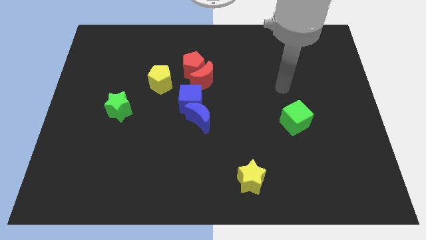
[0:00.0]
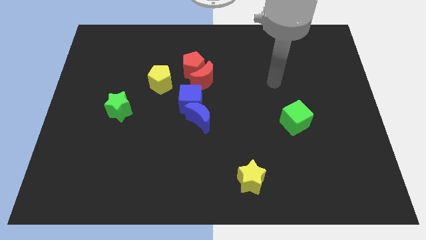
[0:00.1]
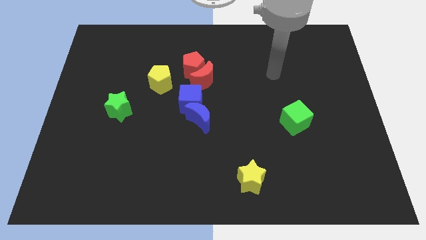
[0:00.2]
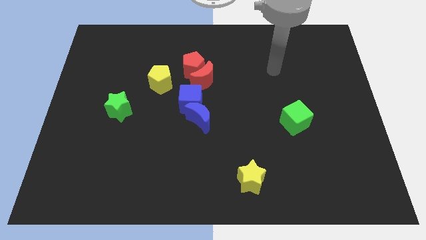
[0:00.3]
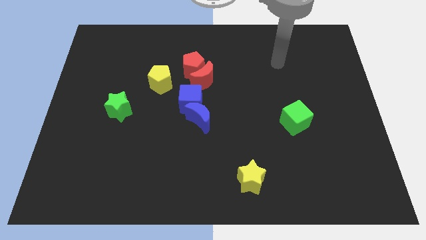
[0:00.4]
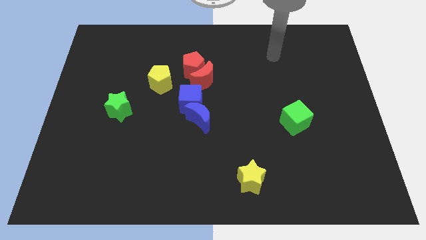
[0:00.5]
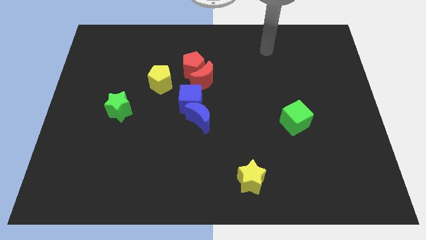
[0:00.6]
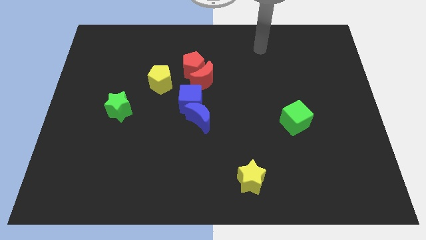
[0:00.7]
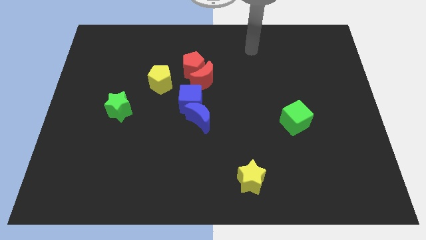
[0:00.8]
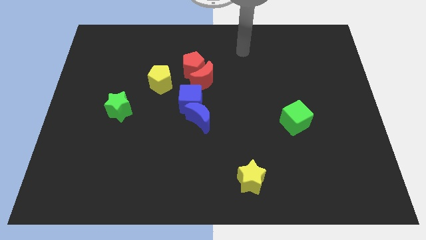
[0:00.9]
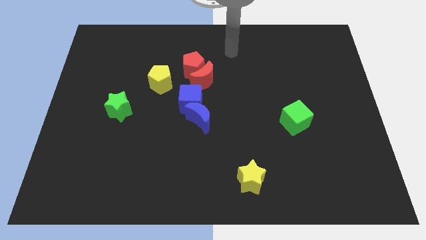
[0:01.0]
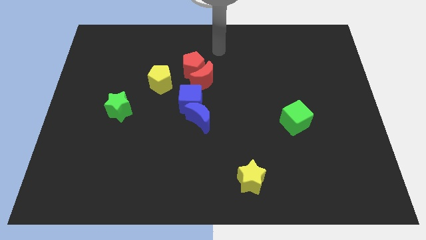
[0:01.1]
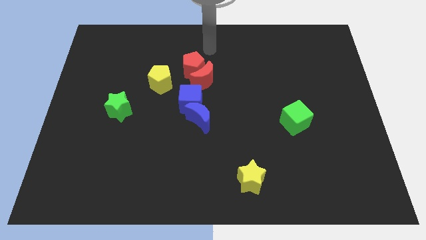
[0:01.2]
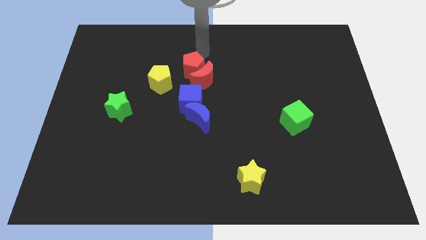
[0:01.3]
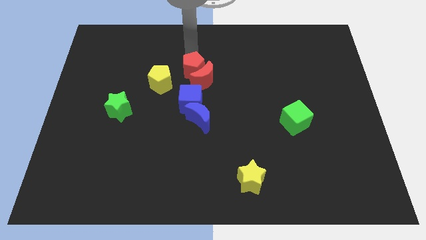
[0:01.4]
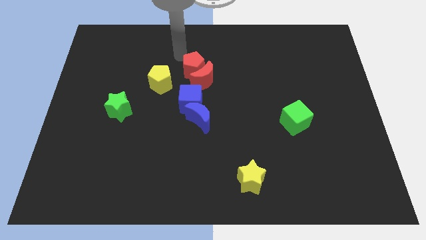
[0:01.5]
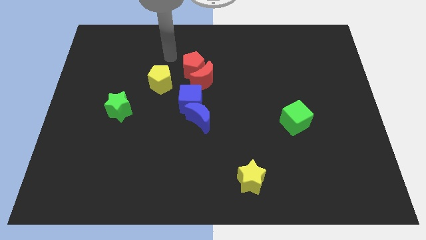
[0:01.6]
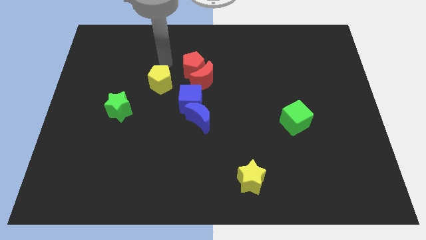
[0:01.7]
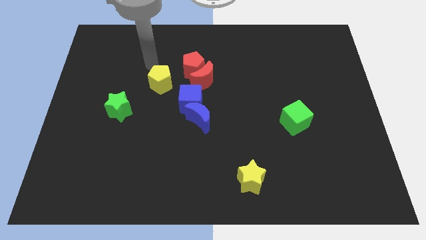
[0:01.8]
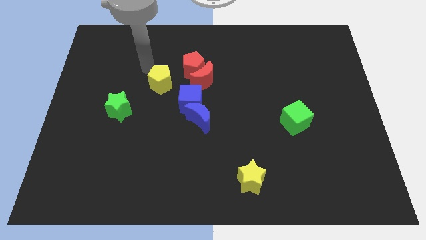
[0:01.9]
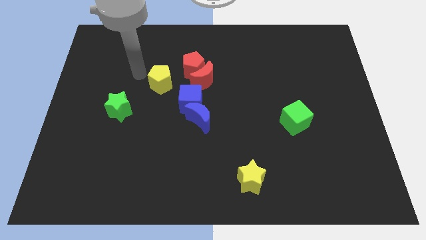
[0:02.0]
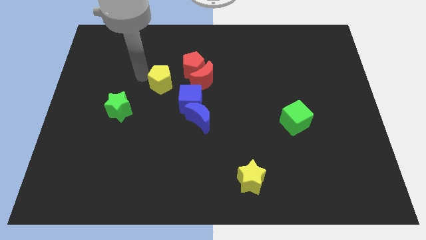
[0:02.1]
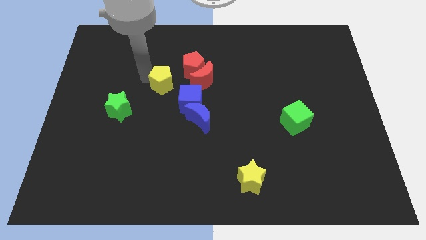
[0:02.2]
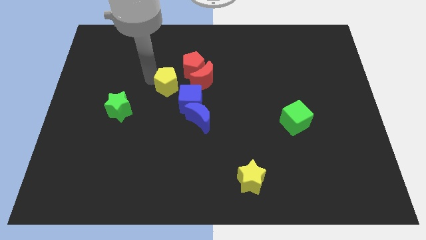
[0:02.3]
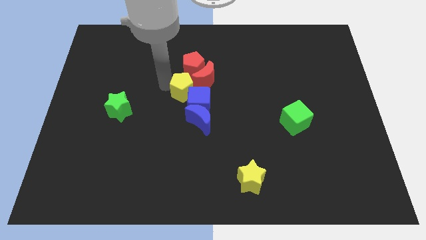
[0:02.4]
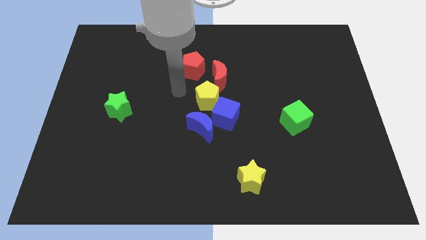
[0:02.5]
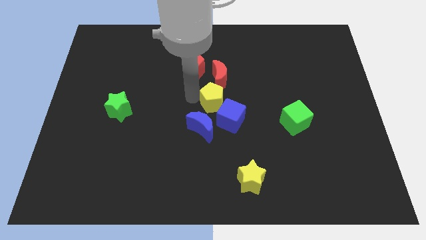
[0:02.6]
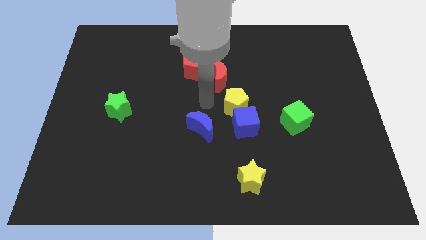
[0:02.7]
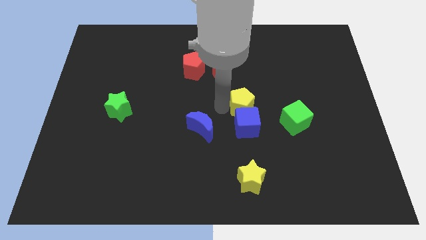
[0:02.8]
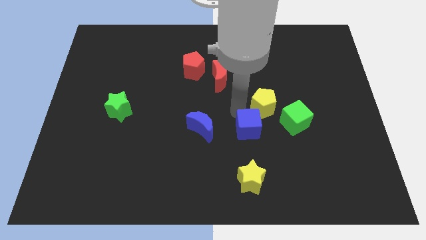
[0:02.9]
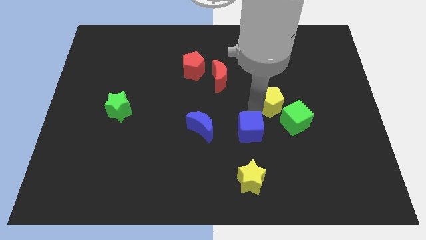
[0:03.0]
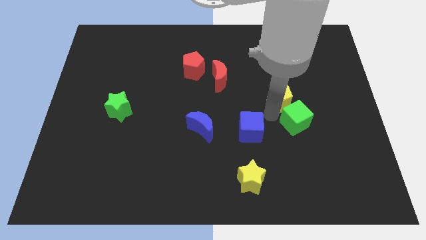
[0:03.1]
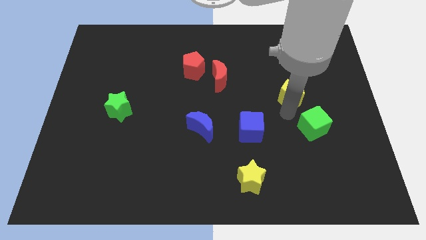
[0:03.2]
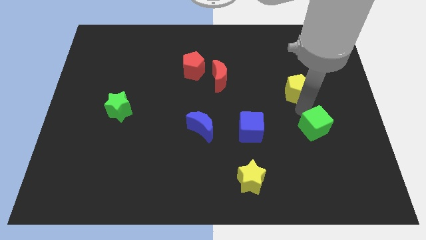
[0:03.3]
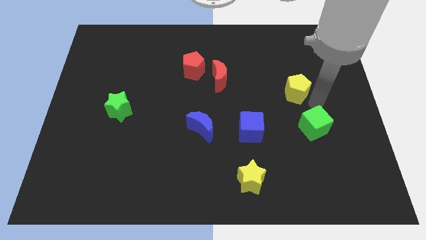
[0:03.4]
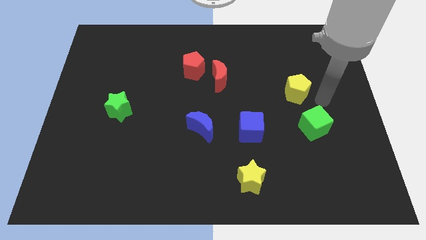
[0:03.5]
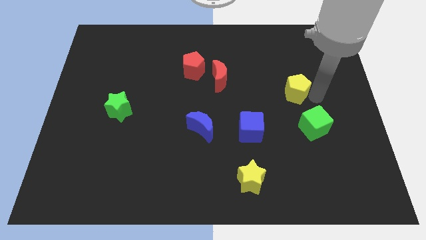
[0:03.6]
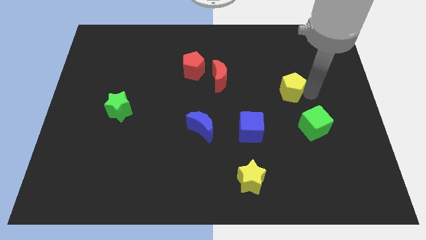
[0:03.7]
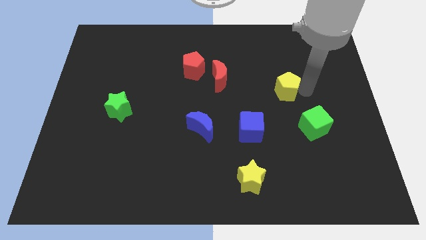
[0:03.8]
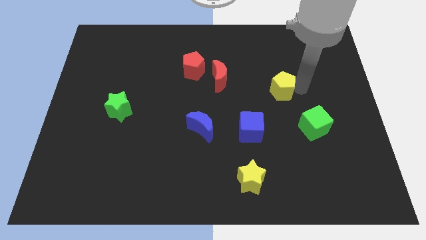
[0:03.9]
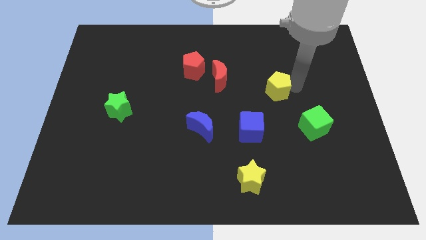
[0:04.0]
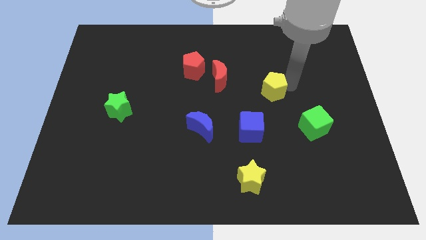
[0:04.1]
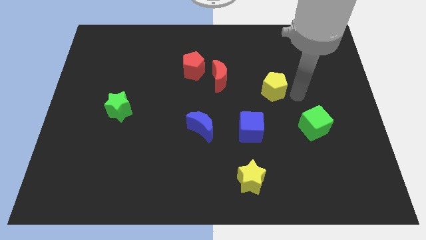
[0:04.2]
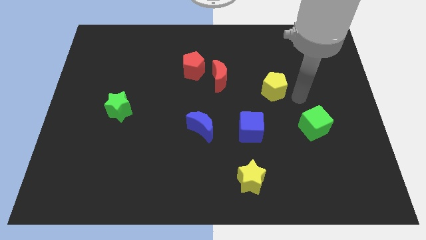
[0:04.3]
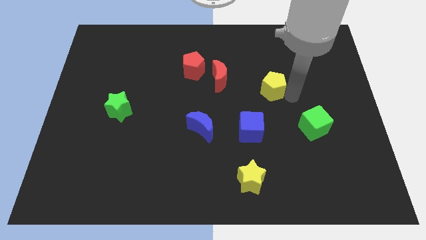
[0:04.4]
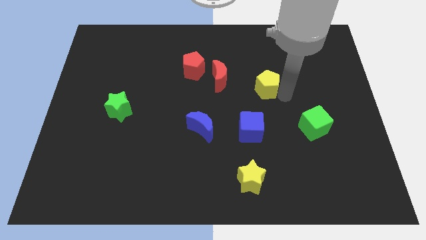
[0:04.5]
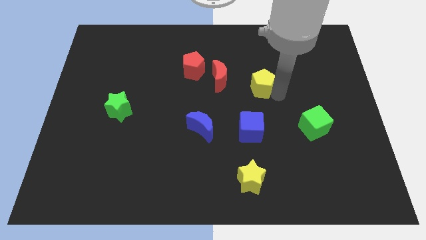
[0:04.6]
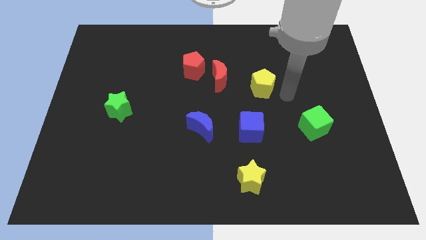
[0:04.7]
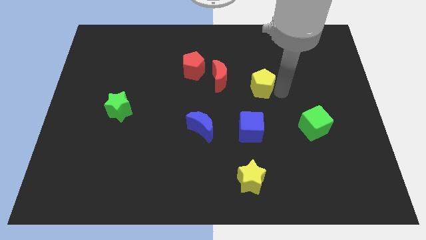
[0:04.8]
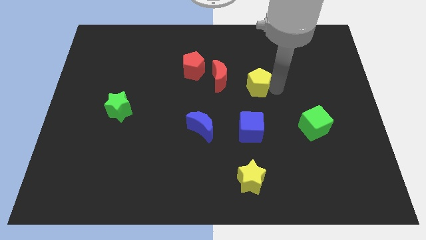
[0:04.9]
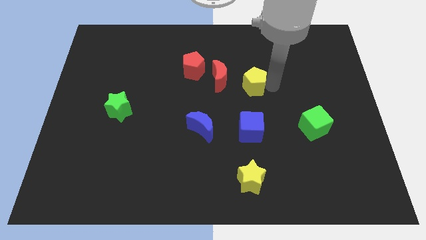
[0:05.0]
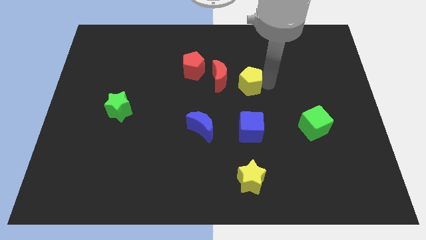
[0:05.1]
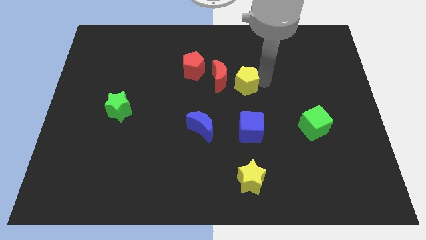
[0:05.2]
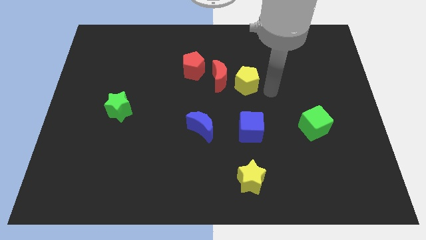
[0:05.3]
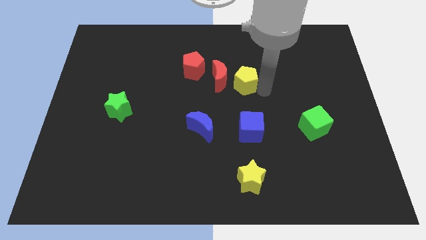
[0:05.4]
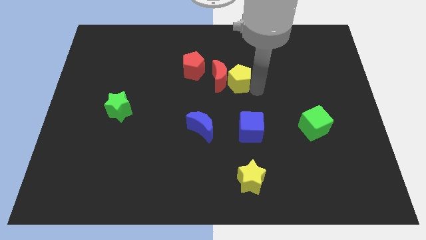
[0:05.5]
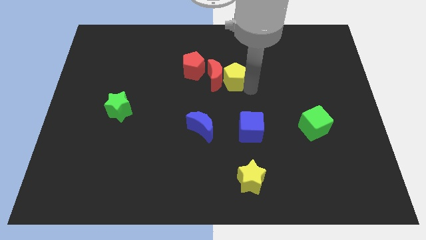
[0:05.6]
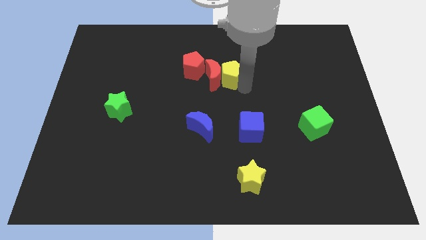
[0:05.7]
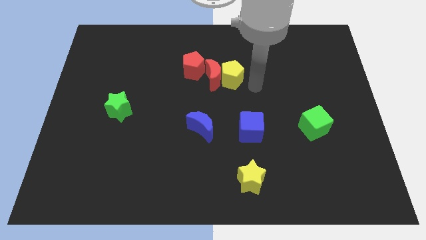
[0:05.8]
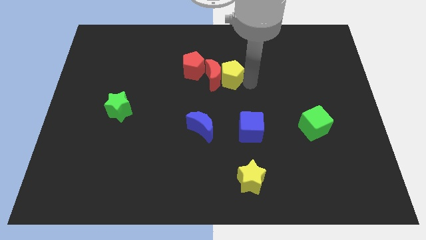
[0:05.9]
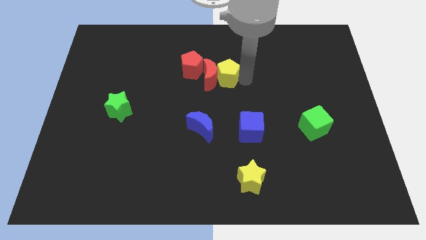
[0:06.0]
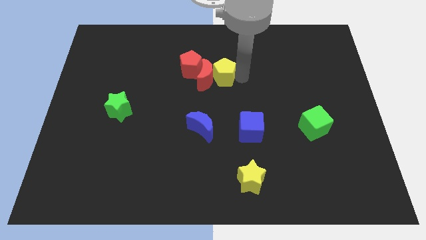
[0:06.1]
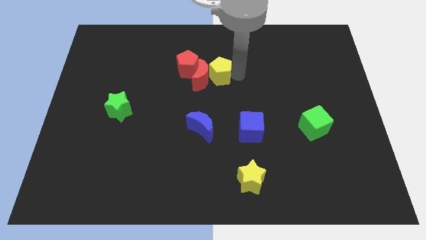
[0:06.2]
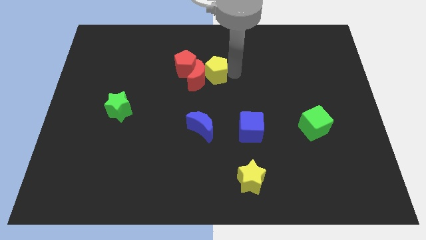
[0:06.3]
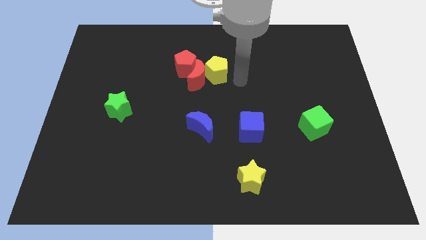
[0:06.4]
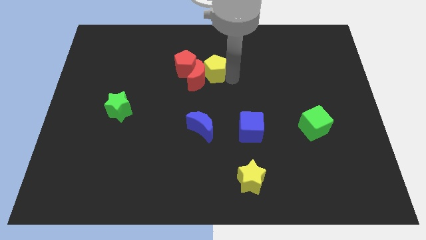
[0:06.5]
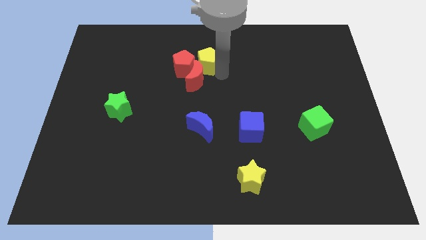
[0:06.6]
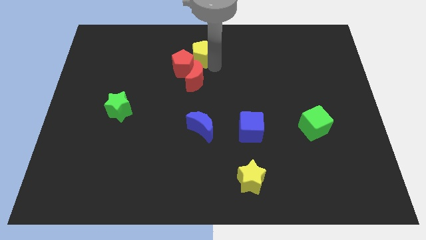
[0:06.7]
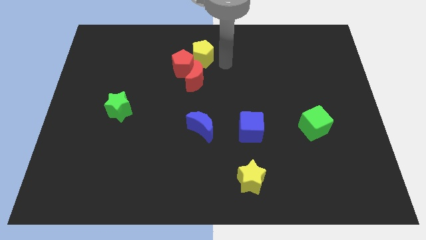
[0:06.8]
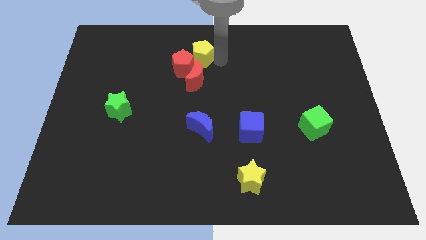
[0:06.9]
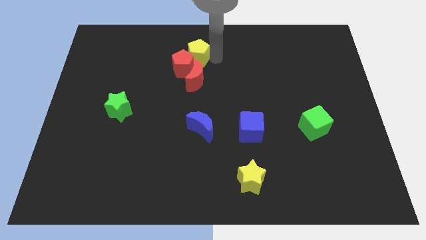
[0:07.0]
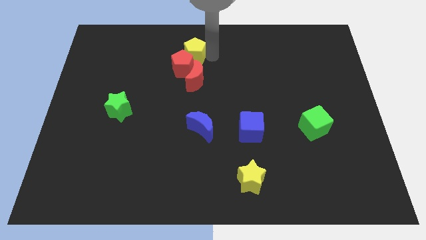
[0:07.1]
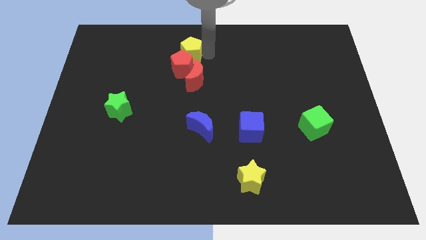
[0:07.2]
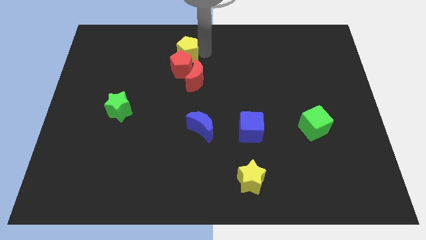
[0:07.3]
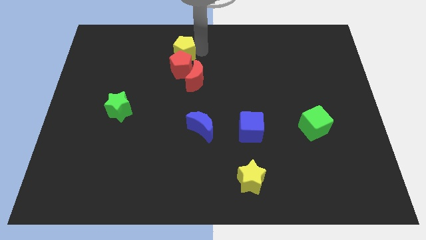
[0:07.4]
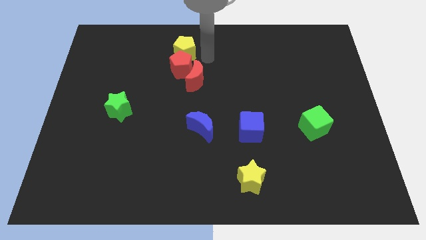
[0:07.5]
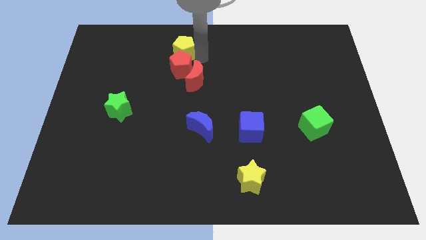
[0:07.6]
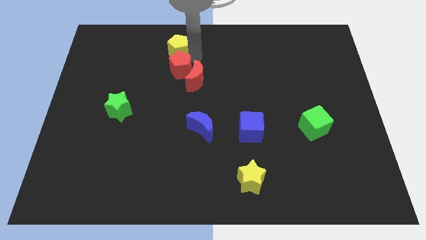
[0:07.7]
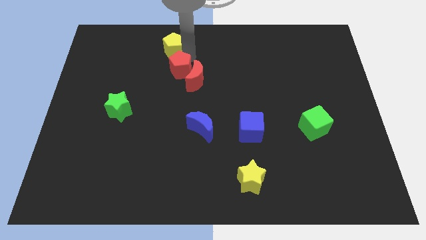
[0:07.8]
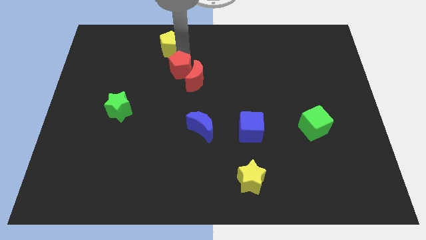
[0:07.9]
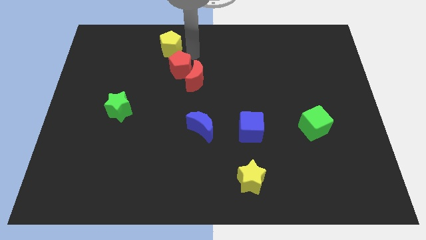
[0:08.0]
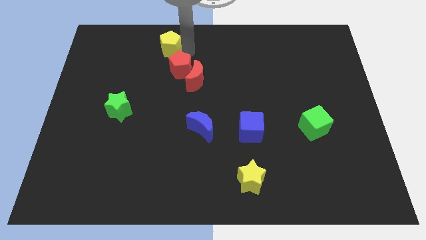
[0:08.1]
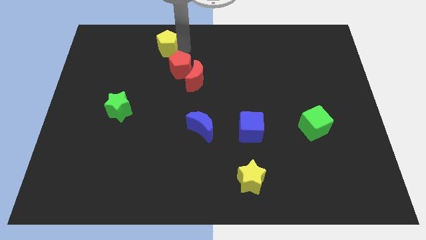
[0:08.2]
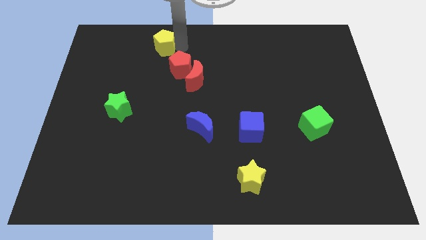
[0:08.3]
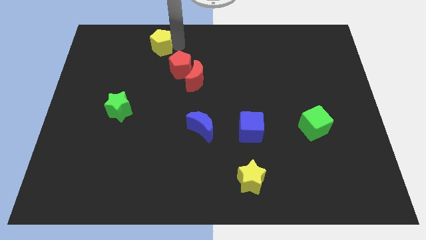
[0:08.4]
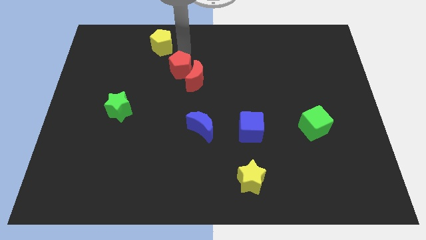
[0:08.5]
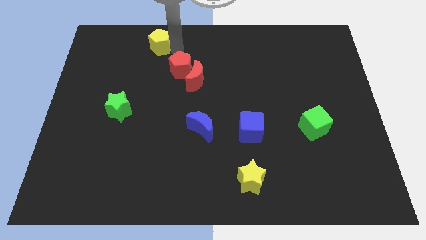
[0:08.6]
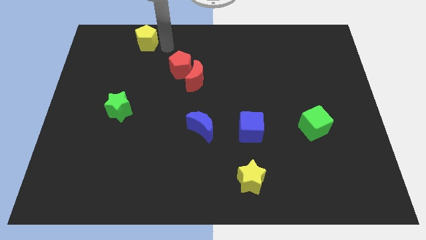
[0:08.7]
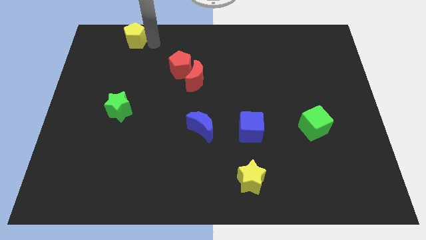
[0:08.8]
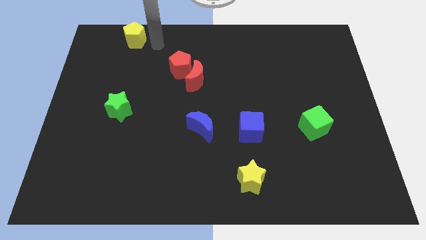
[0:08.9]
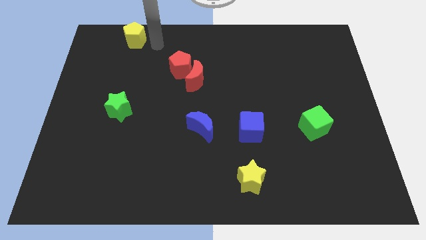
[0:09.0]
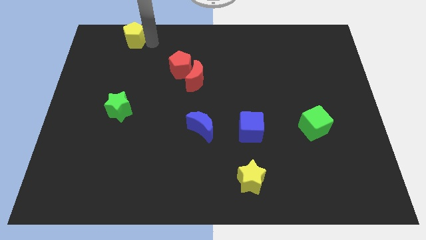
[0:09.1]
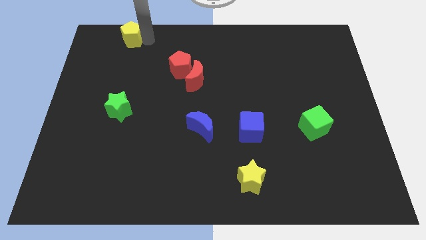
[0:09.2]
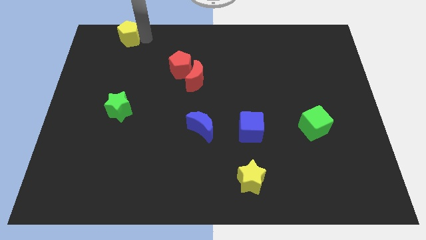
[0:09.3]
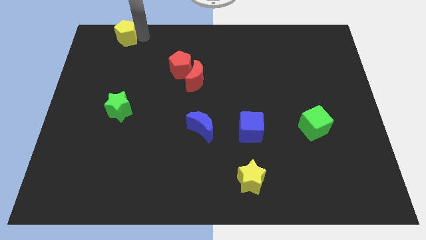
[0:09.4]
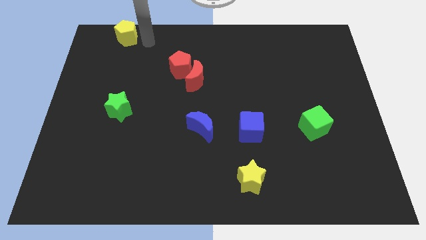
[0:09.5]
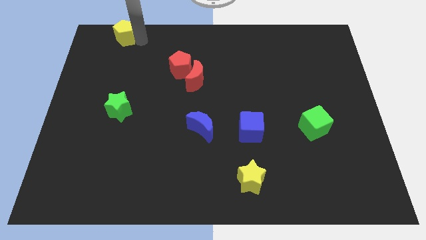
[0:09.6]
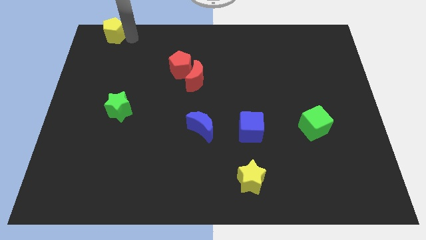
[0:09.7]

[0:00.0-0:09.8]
move the yellow pentagon to the top left of the board
